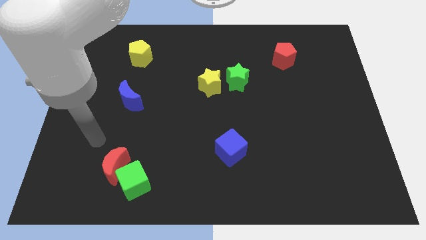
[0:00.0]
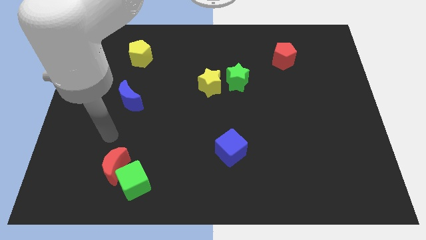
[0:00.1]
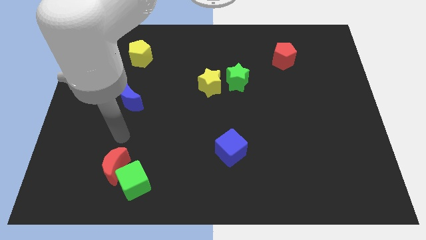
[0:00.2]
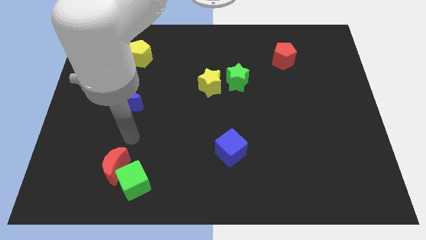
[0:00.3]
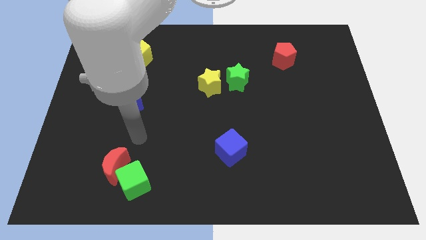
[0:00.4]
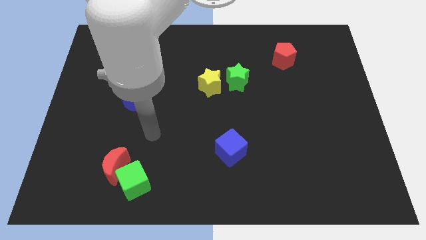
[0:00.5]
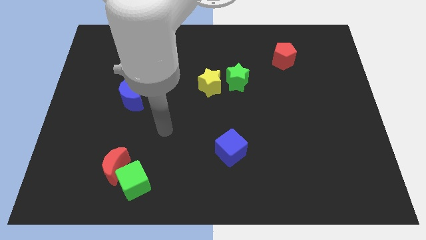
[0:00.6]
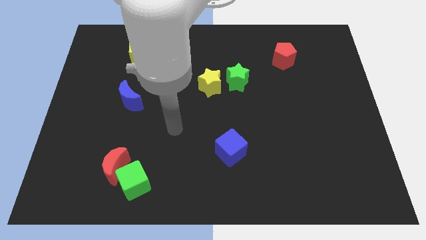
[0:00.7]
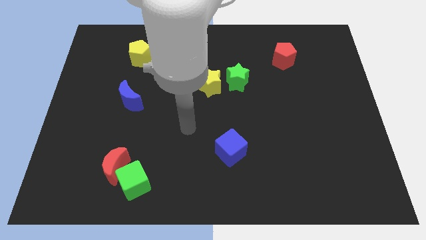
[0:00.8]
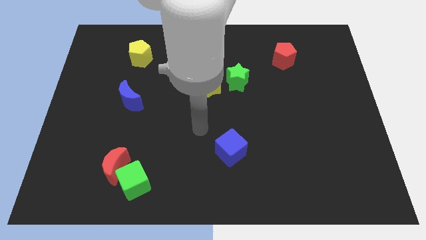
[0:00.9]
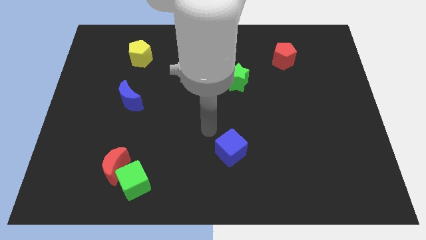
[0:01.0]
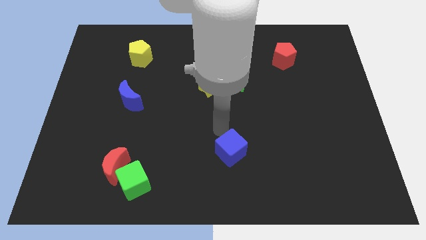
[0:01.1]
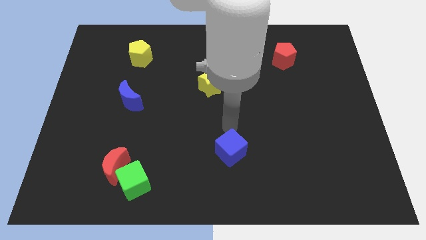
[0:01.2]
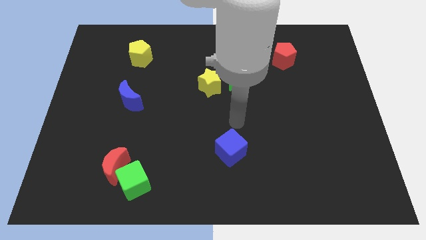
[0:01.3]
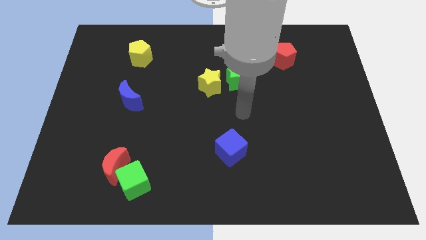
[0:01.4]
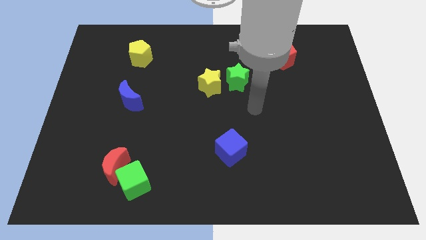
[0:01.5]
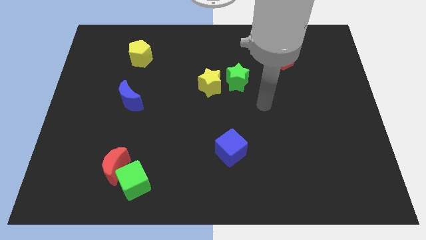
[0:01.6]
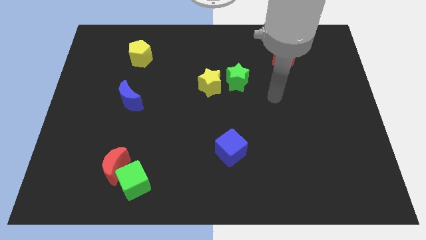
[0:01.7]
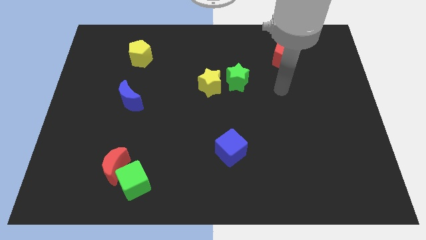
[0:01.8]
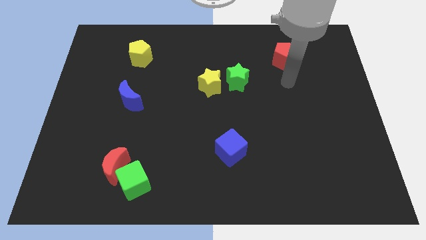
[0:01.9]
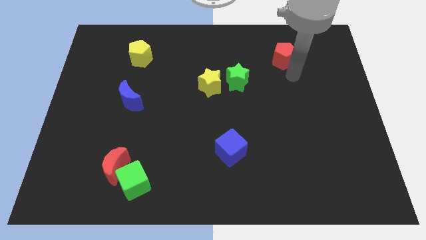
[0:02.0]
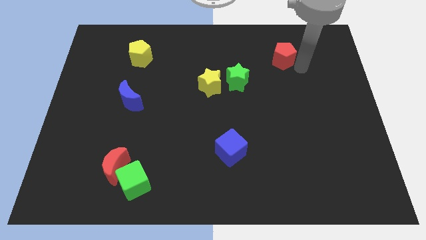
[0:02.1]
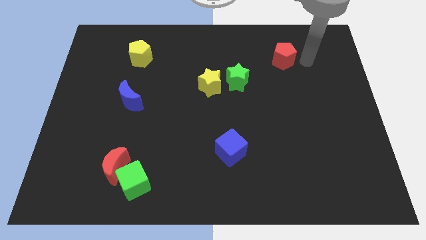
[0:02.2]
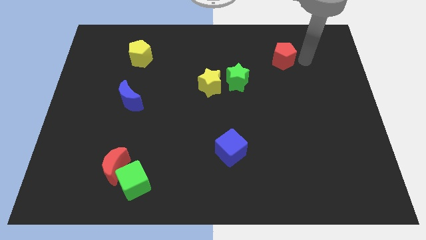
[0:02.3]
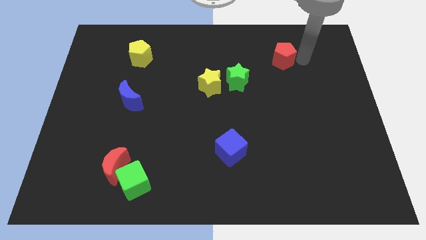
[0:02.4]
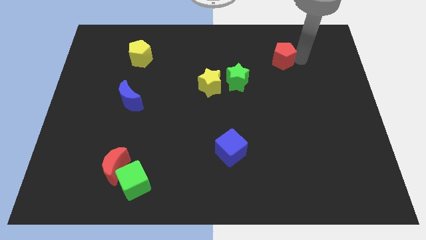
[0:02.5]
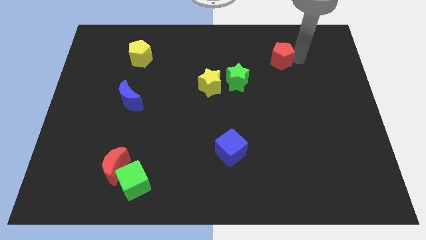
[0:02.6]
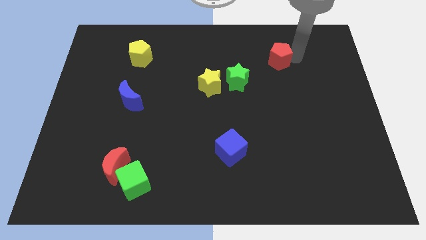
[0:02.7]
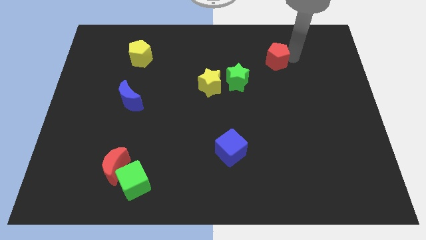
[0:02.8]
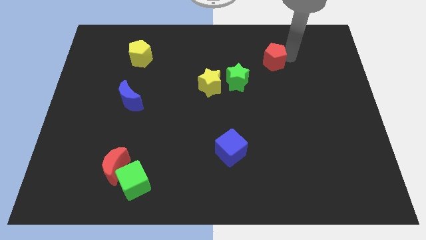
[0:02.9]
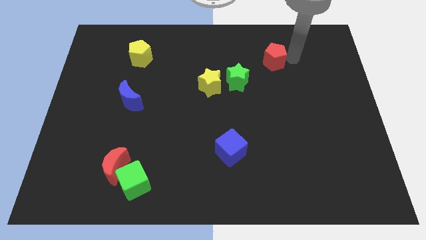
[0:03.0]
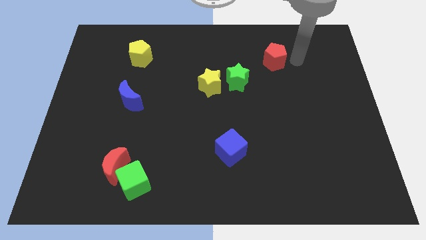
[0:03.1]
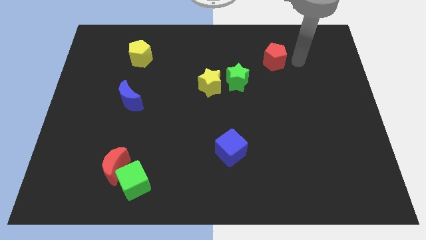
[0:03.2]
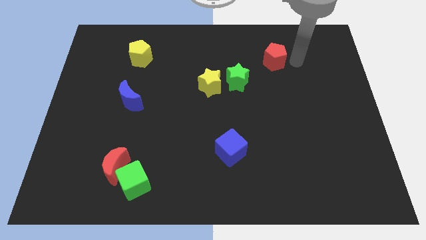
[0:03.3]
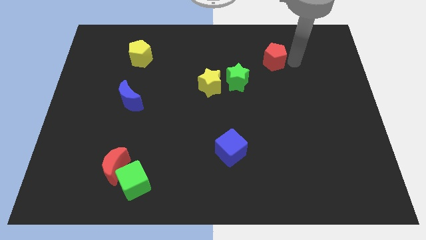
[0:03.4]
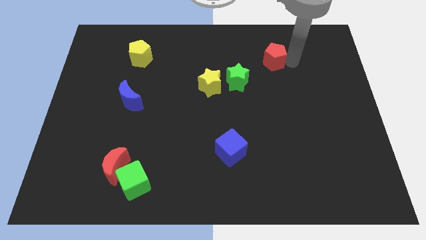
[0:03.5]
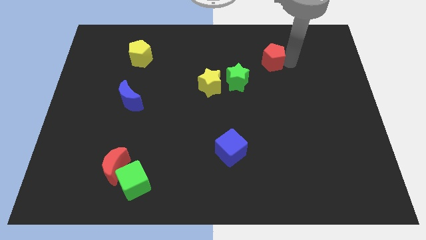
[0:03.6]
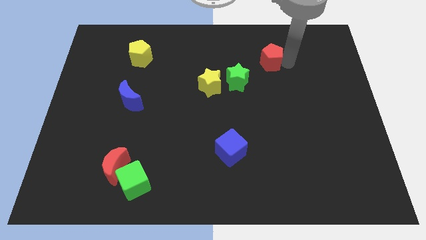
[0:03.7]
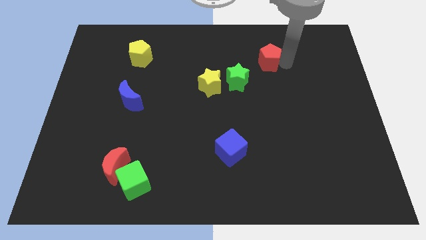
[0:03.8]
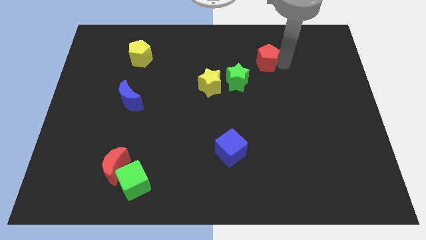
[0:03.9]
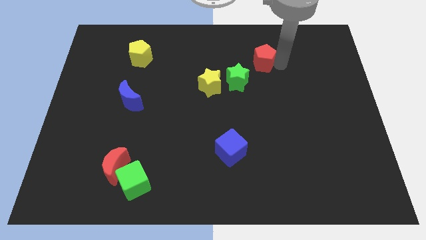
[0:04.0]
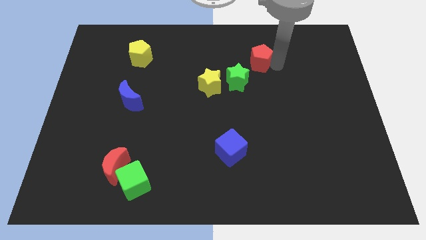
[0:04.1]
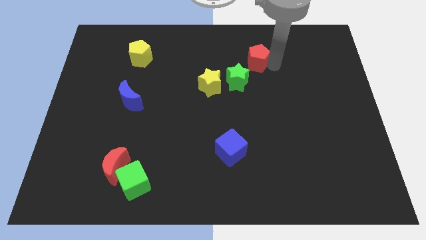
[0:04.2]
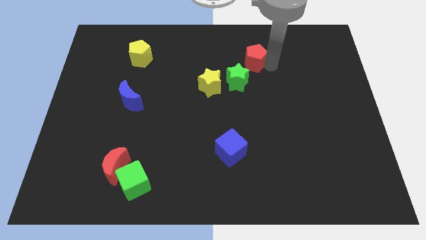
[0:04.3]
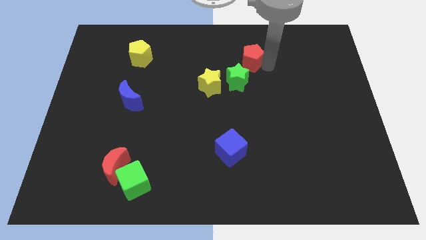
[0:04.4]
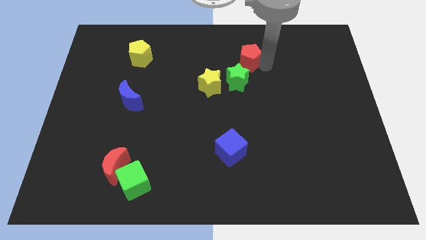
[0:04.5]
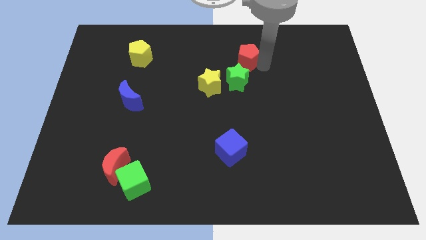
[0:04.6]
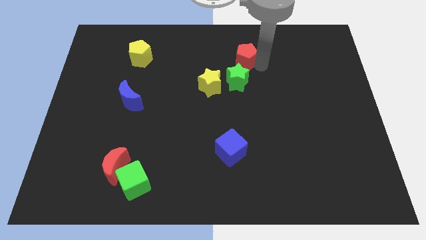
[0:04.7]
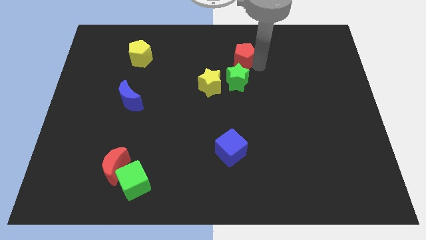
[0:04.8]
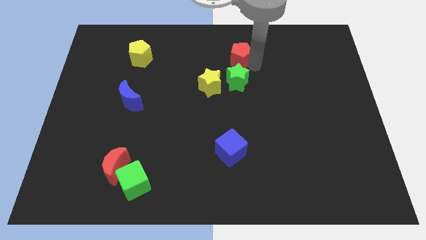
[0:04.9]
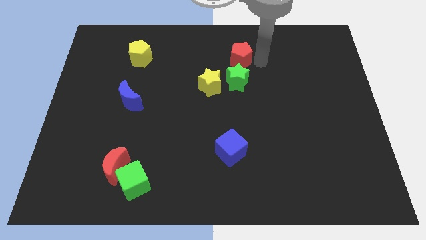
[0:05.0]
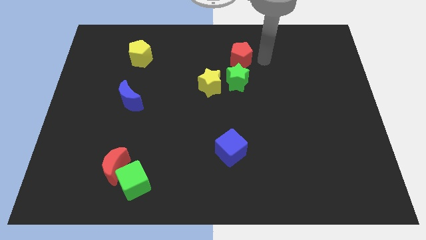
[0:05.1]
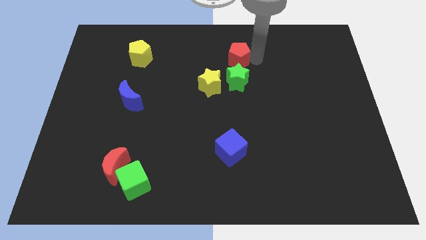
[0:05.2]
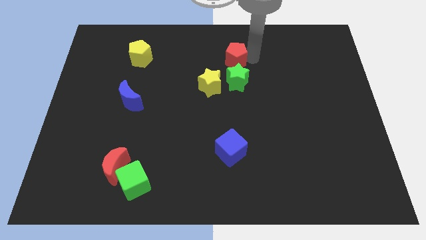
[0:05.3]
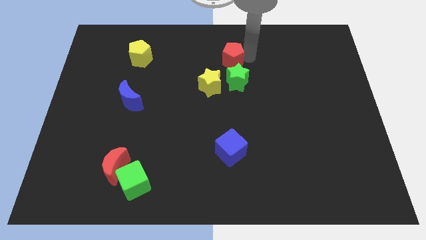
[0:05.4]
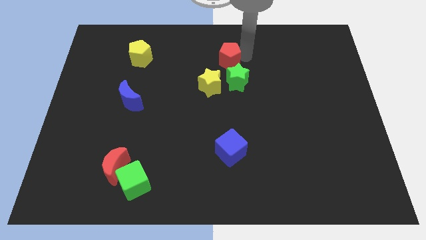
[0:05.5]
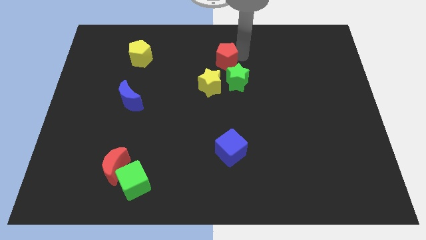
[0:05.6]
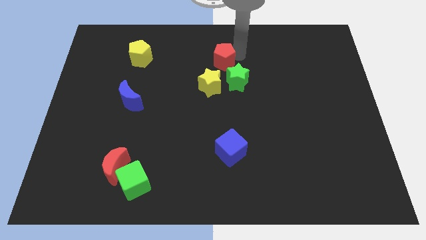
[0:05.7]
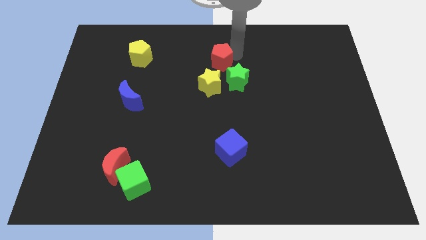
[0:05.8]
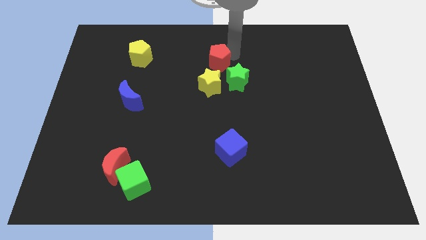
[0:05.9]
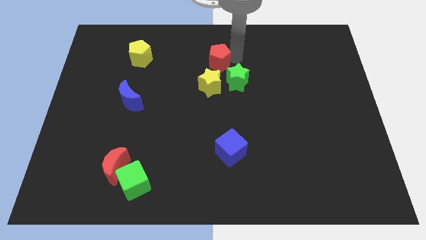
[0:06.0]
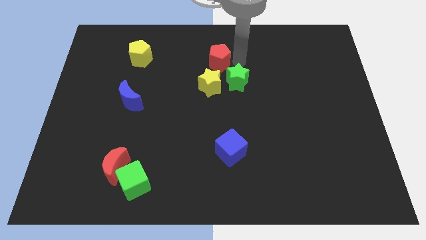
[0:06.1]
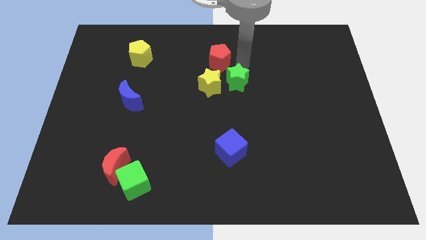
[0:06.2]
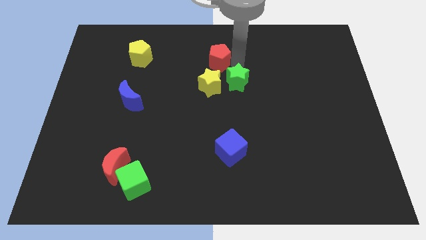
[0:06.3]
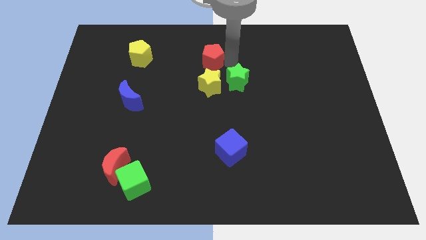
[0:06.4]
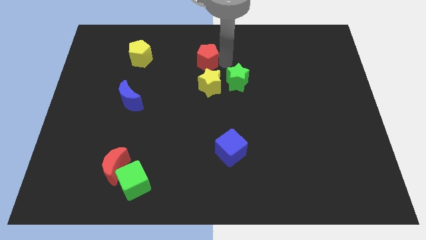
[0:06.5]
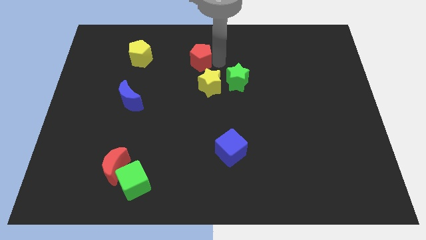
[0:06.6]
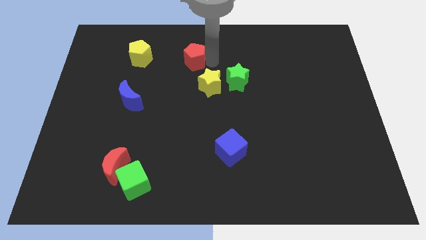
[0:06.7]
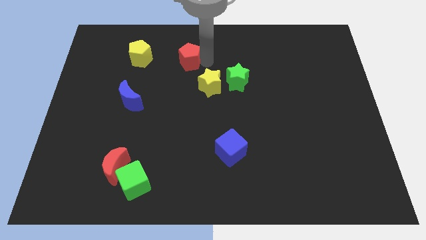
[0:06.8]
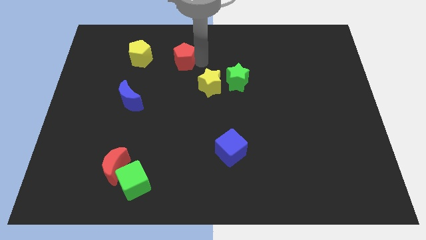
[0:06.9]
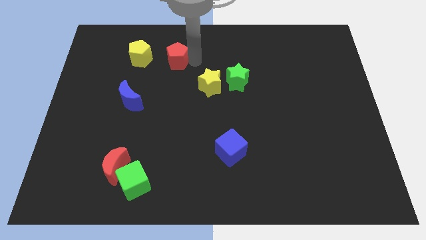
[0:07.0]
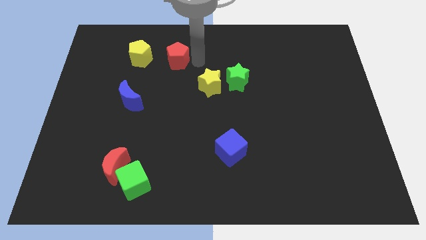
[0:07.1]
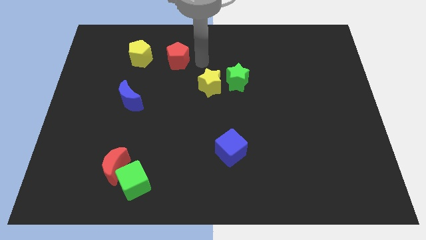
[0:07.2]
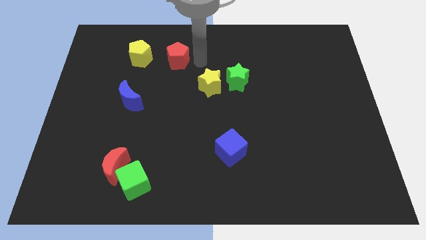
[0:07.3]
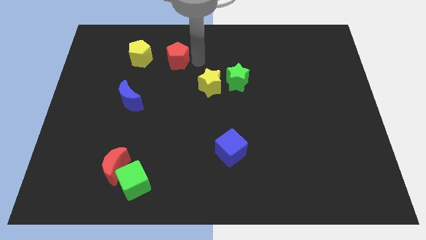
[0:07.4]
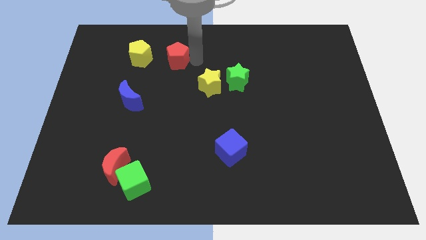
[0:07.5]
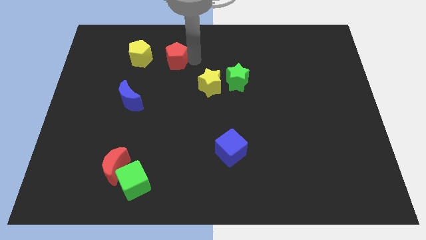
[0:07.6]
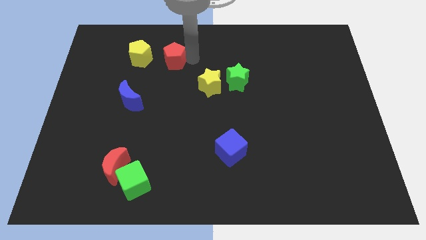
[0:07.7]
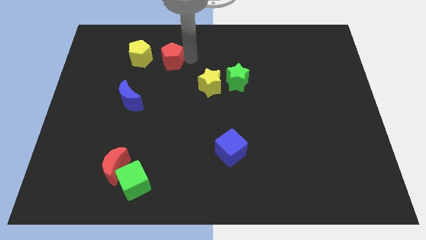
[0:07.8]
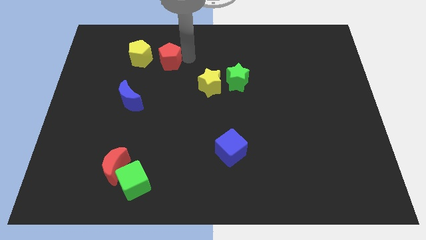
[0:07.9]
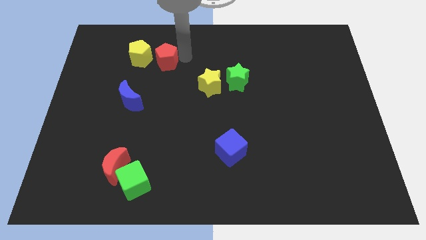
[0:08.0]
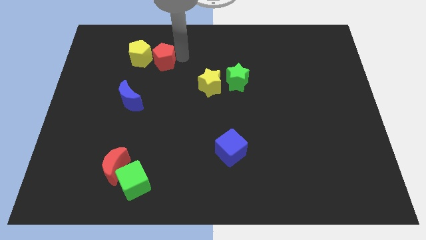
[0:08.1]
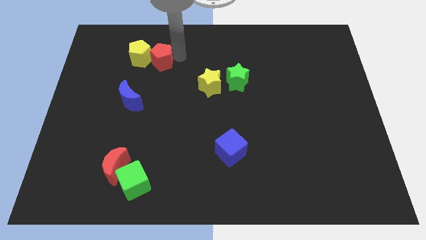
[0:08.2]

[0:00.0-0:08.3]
slide the red pentagon towards the yellow pentagon
